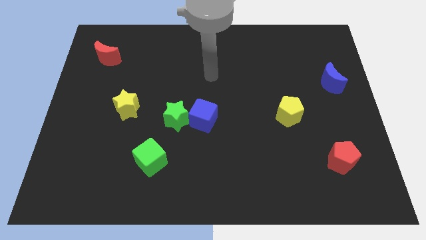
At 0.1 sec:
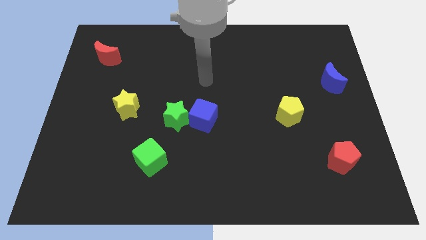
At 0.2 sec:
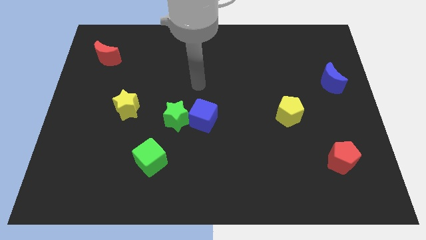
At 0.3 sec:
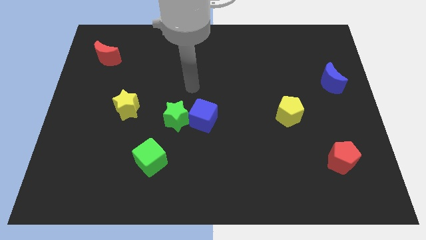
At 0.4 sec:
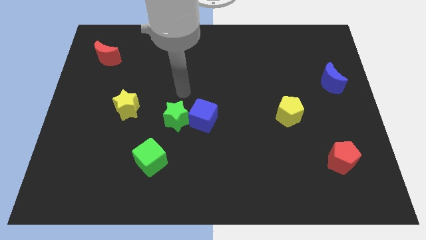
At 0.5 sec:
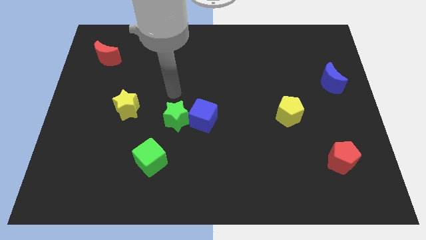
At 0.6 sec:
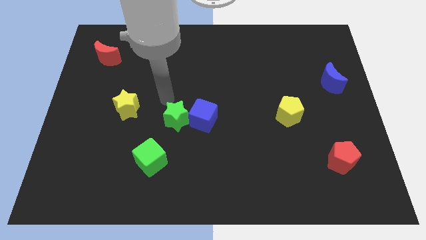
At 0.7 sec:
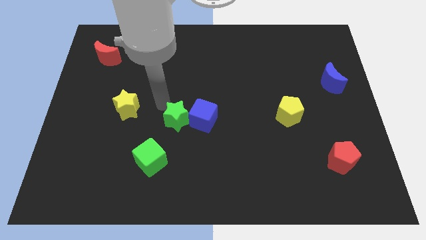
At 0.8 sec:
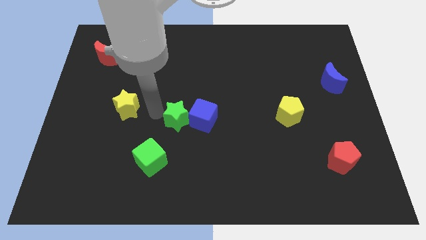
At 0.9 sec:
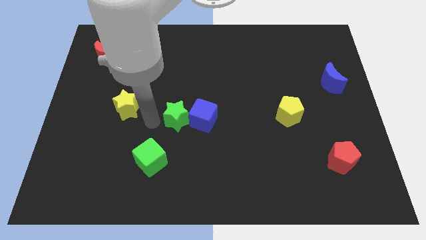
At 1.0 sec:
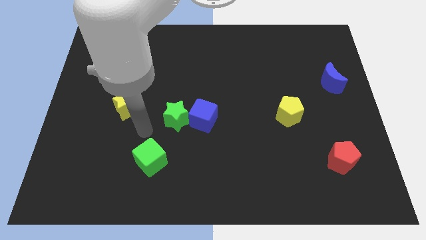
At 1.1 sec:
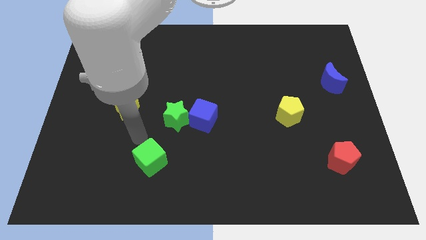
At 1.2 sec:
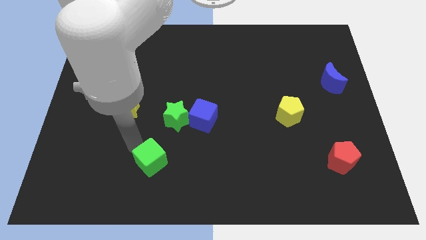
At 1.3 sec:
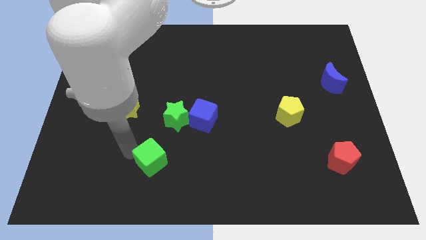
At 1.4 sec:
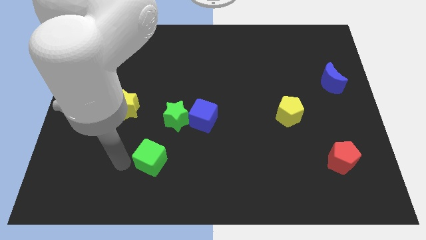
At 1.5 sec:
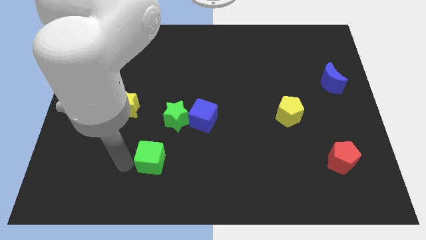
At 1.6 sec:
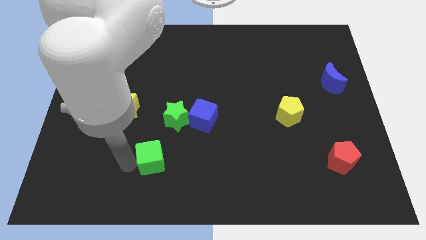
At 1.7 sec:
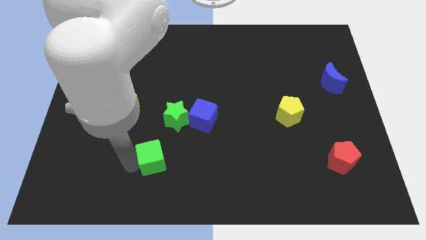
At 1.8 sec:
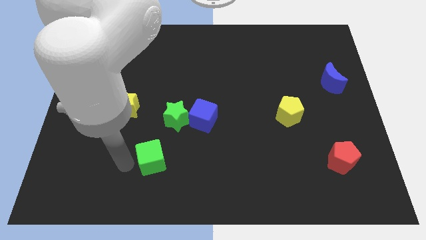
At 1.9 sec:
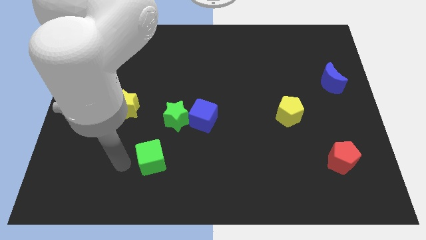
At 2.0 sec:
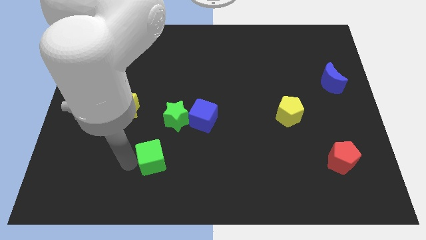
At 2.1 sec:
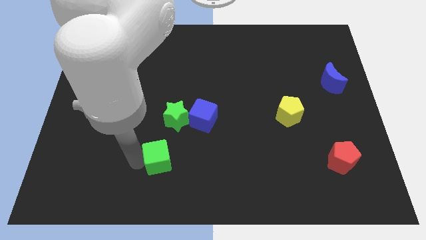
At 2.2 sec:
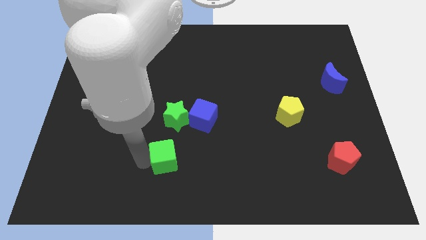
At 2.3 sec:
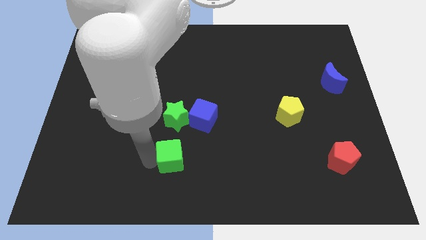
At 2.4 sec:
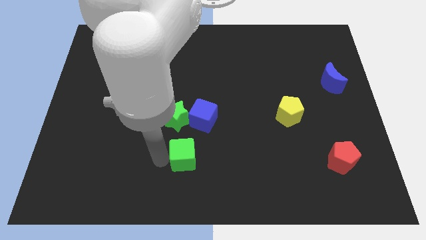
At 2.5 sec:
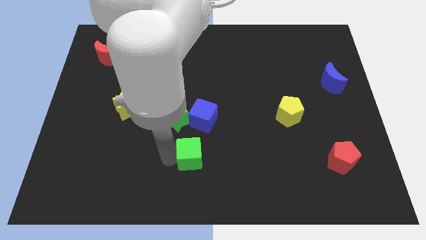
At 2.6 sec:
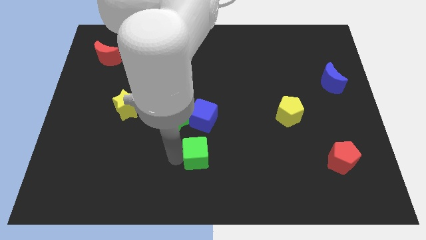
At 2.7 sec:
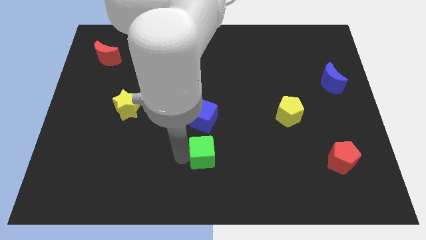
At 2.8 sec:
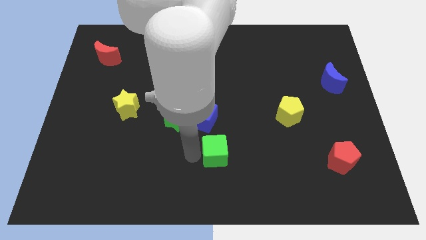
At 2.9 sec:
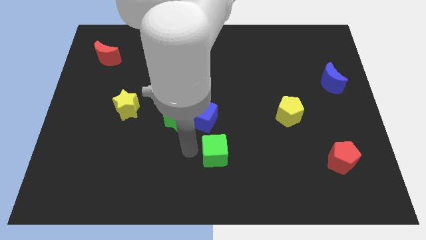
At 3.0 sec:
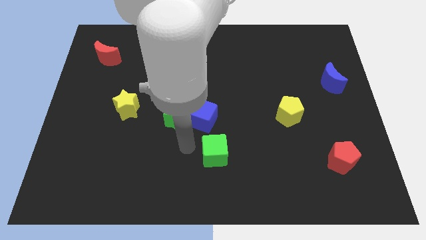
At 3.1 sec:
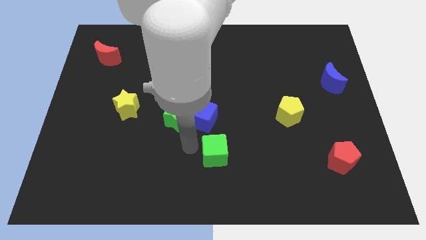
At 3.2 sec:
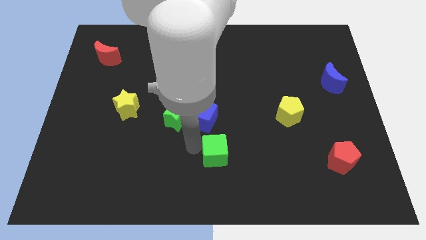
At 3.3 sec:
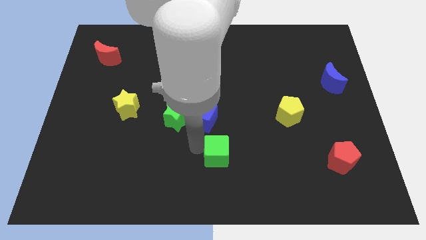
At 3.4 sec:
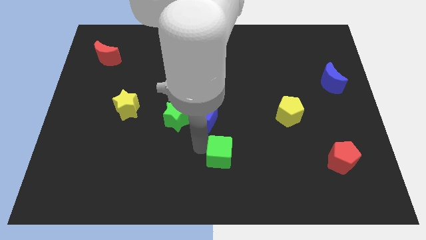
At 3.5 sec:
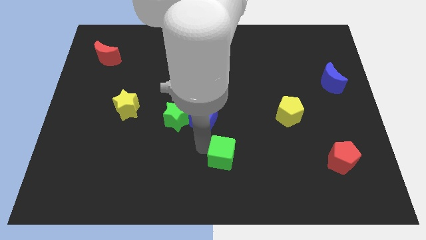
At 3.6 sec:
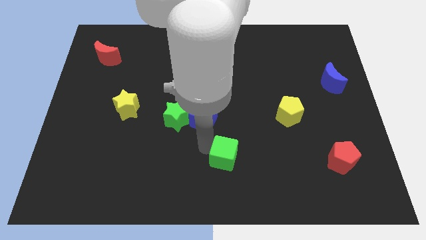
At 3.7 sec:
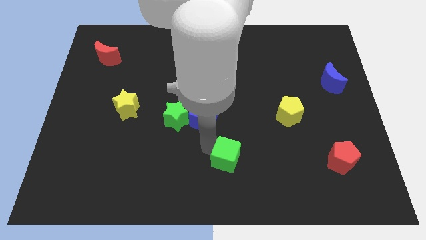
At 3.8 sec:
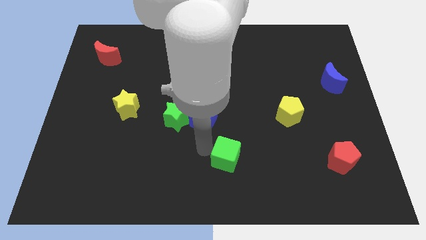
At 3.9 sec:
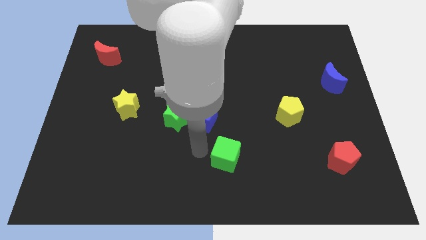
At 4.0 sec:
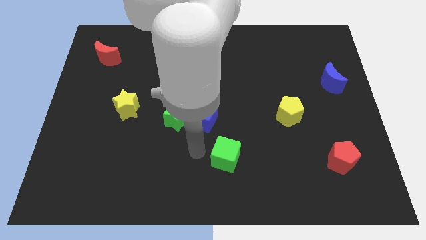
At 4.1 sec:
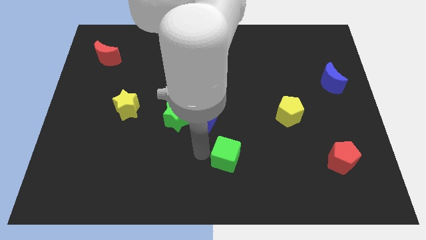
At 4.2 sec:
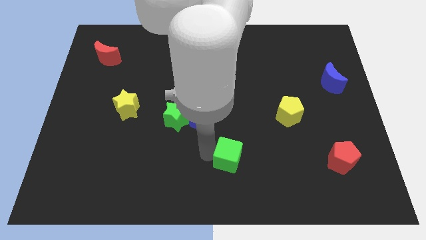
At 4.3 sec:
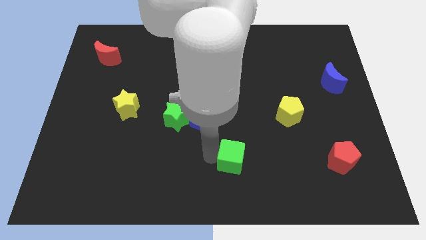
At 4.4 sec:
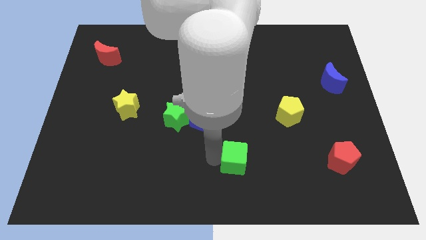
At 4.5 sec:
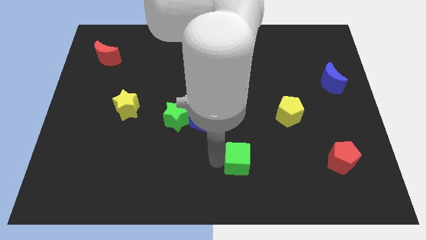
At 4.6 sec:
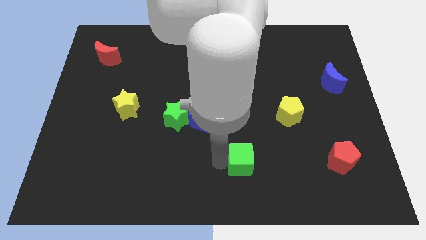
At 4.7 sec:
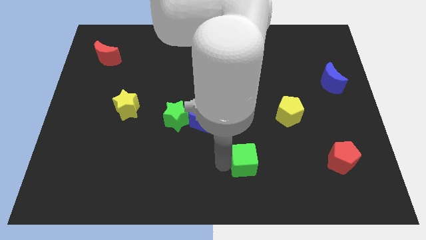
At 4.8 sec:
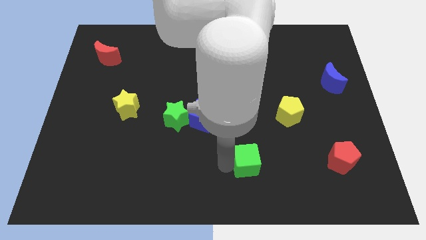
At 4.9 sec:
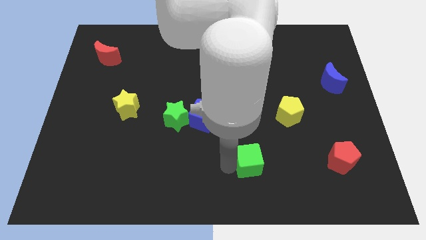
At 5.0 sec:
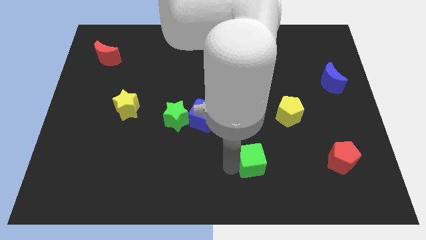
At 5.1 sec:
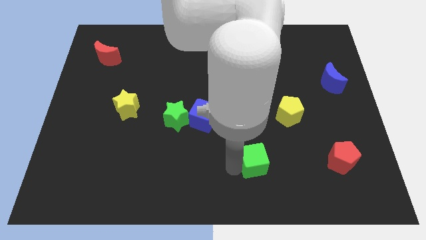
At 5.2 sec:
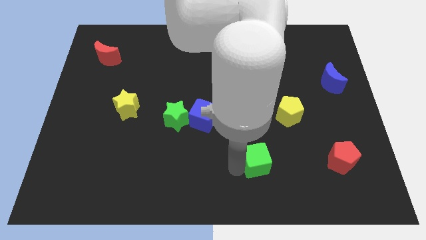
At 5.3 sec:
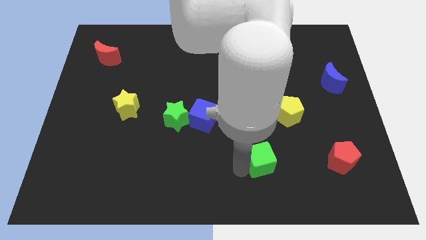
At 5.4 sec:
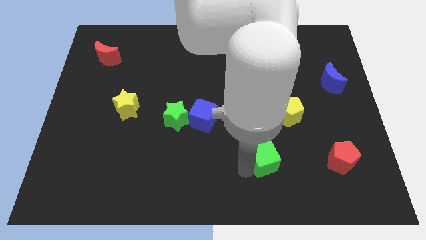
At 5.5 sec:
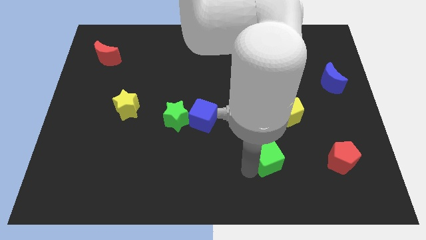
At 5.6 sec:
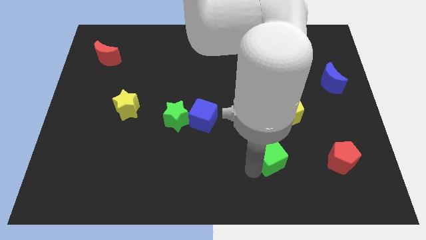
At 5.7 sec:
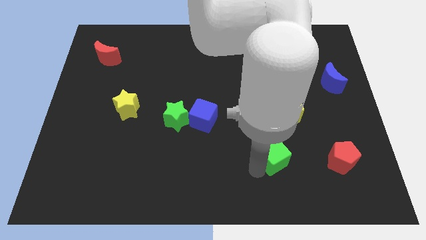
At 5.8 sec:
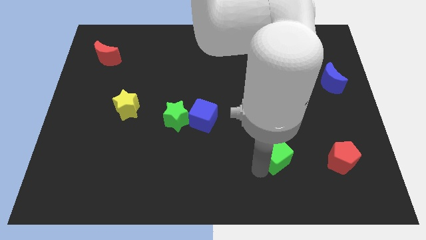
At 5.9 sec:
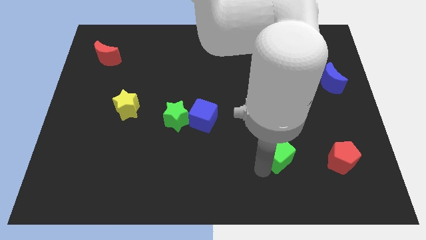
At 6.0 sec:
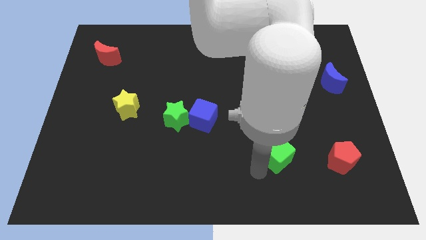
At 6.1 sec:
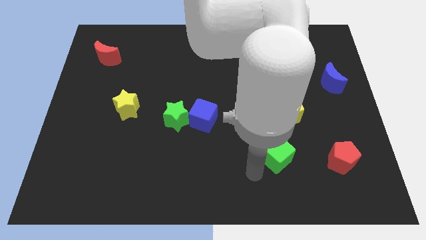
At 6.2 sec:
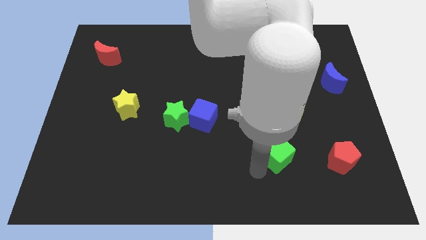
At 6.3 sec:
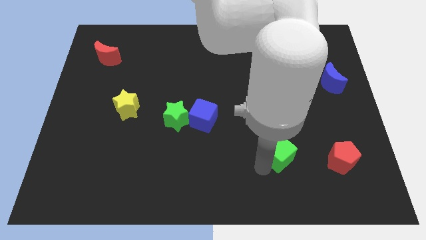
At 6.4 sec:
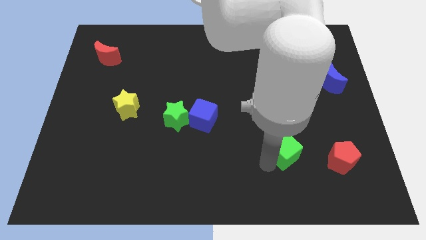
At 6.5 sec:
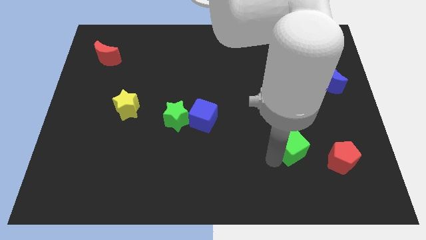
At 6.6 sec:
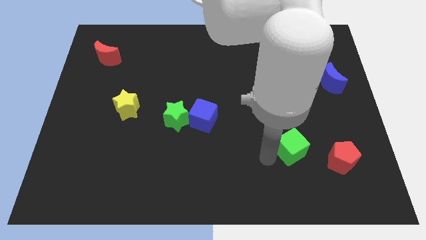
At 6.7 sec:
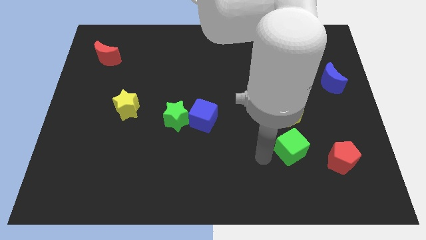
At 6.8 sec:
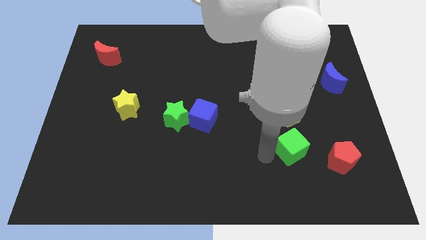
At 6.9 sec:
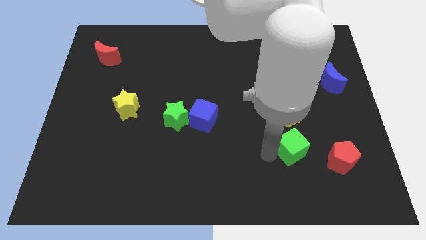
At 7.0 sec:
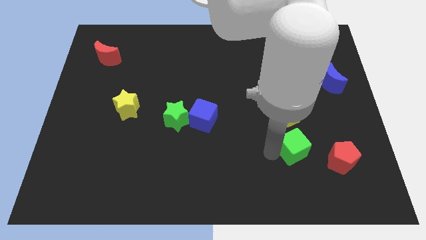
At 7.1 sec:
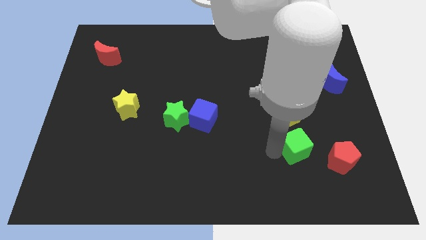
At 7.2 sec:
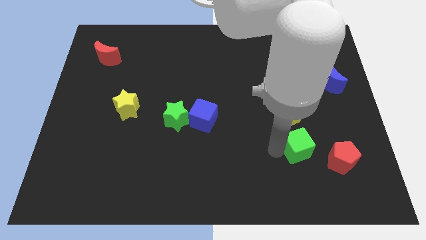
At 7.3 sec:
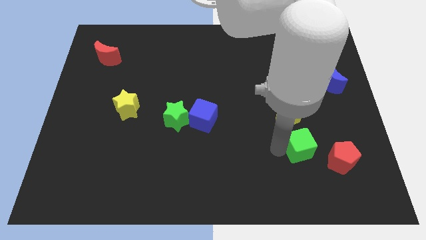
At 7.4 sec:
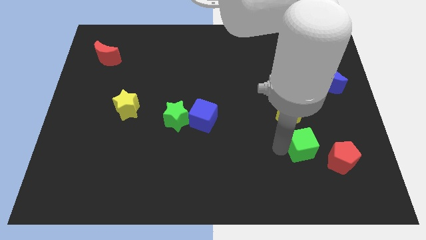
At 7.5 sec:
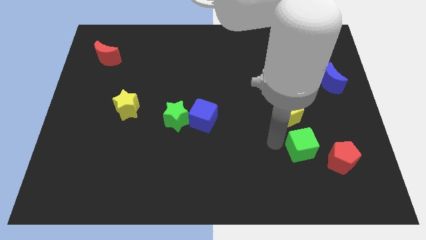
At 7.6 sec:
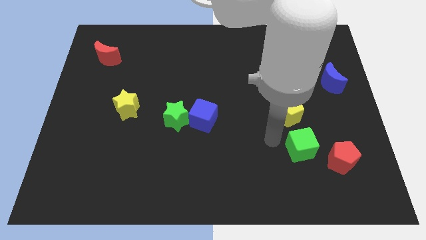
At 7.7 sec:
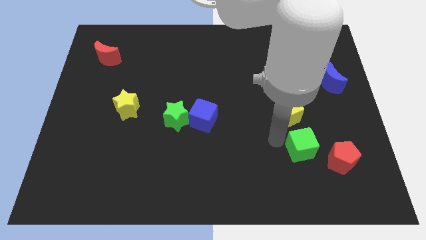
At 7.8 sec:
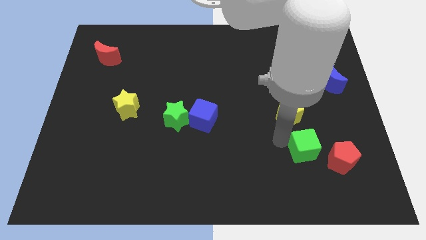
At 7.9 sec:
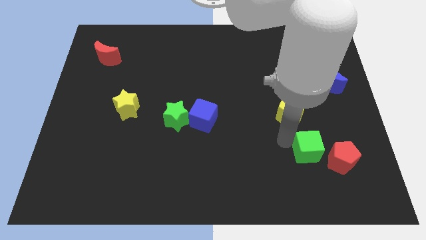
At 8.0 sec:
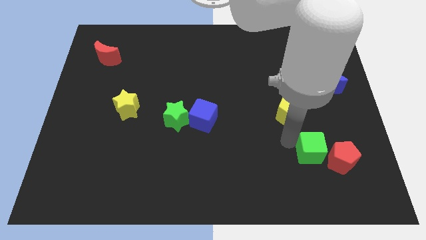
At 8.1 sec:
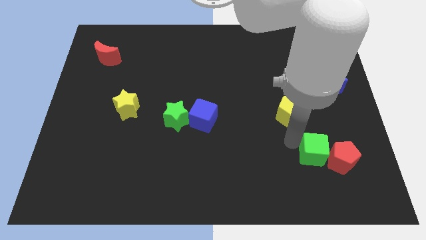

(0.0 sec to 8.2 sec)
slide the green cube close to the red pentagon
